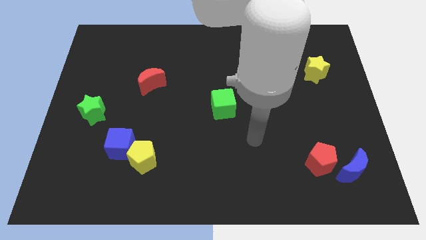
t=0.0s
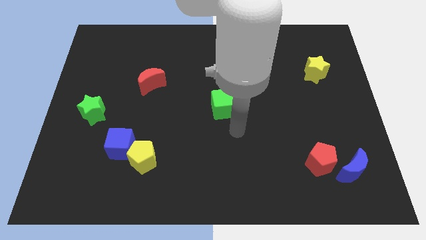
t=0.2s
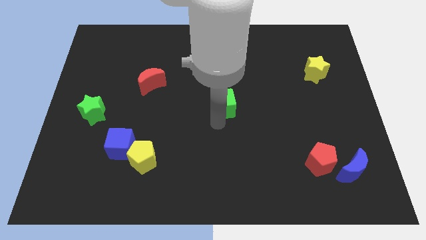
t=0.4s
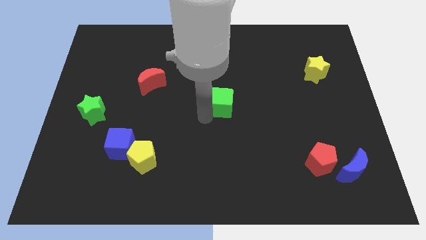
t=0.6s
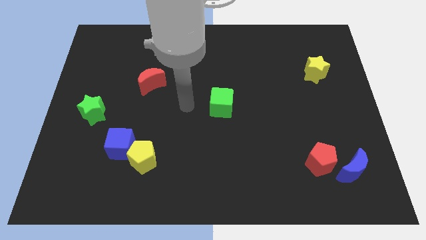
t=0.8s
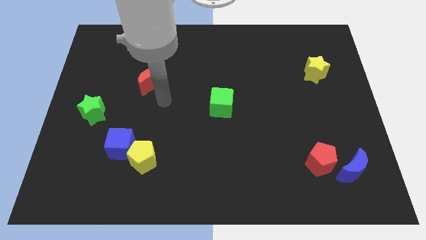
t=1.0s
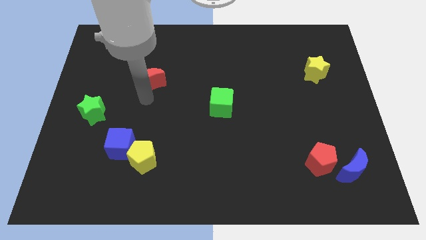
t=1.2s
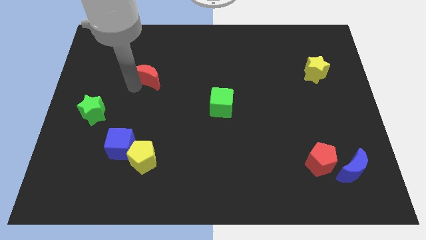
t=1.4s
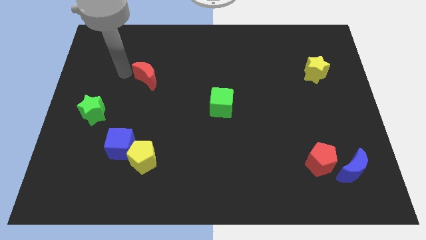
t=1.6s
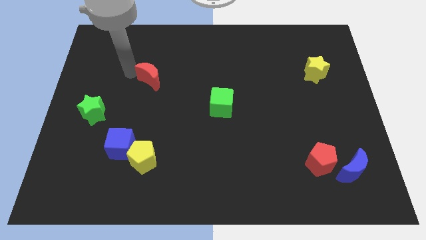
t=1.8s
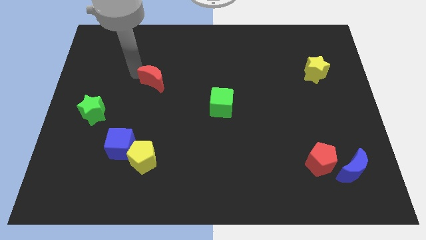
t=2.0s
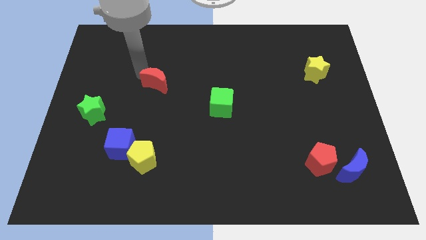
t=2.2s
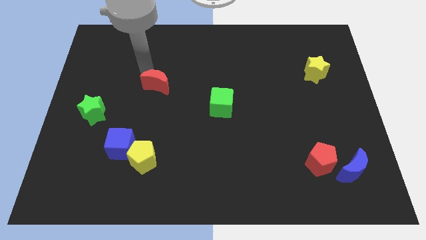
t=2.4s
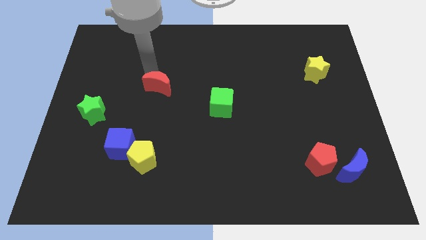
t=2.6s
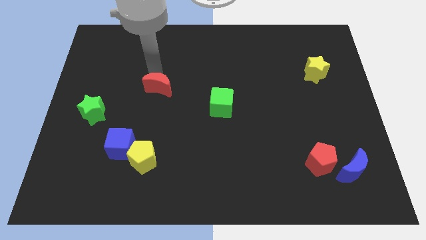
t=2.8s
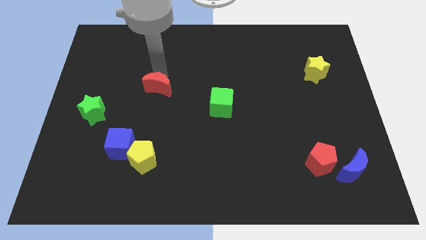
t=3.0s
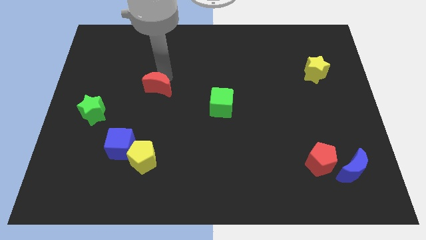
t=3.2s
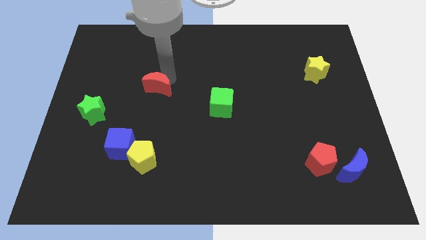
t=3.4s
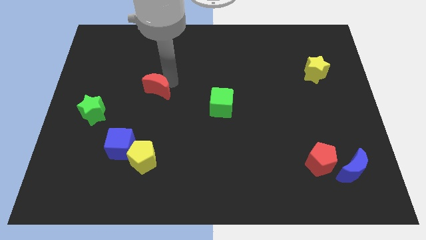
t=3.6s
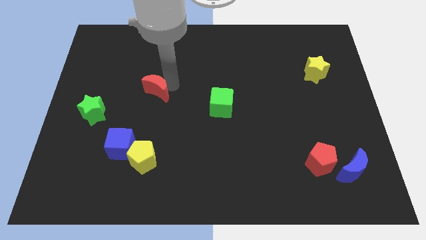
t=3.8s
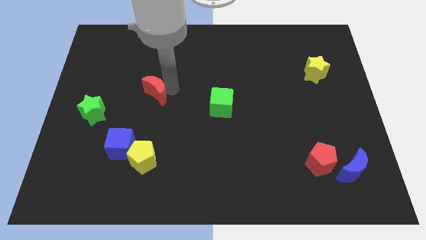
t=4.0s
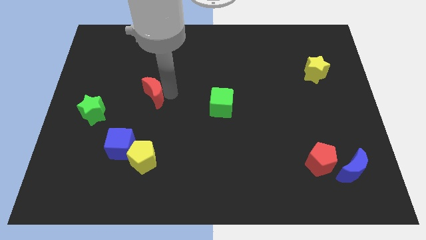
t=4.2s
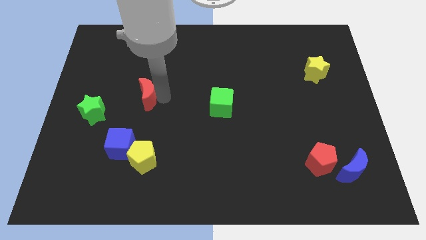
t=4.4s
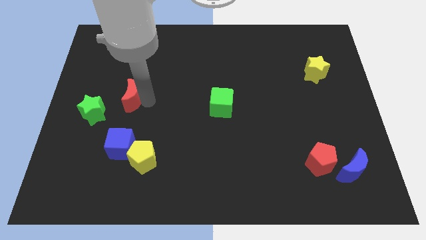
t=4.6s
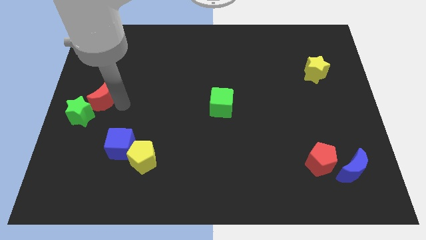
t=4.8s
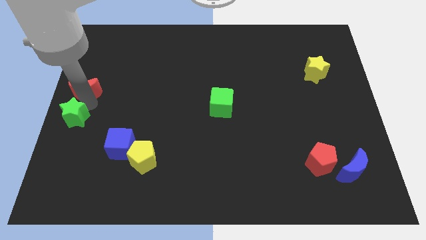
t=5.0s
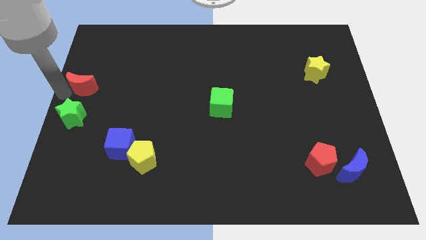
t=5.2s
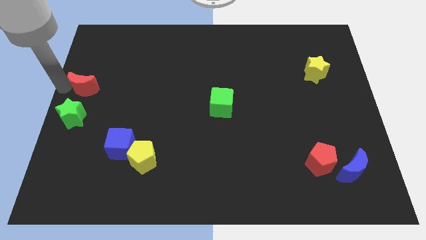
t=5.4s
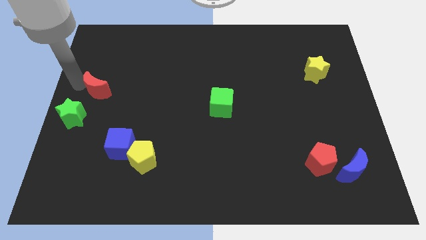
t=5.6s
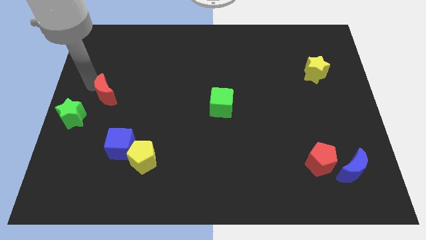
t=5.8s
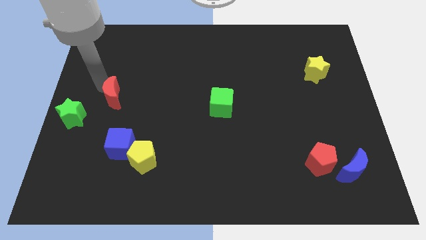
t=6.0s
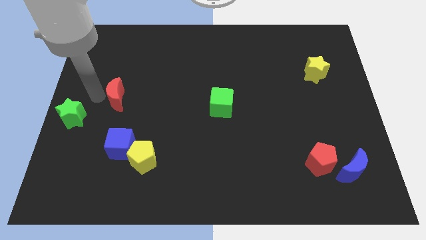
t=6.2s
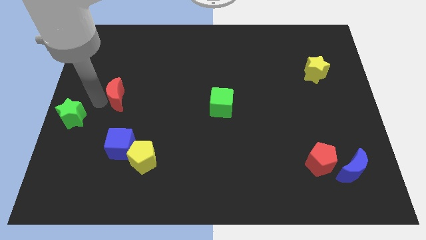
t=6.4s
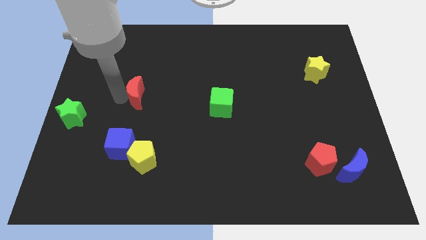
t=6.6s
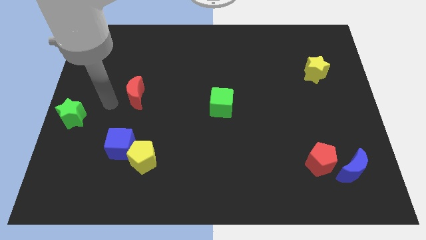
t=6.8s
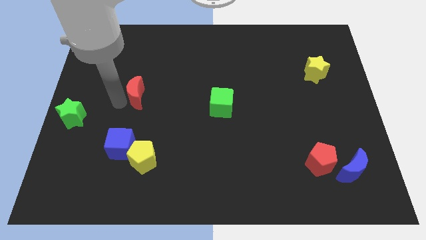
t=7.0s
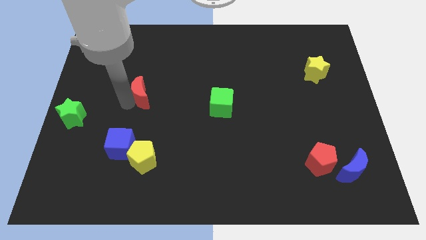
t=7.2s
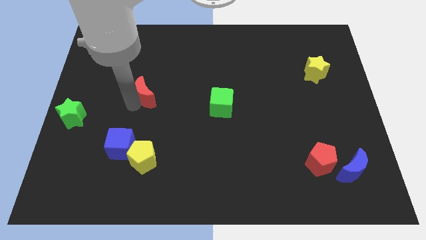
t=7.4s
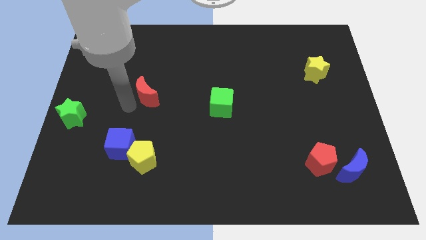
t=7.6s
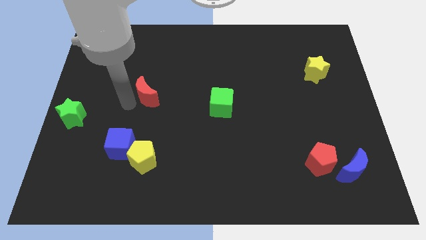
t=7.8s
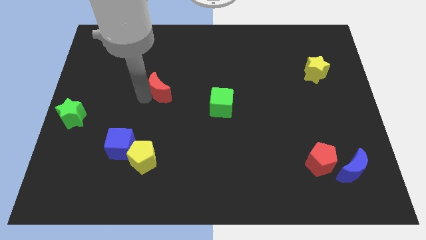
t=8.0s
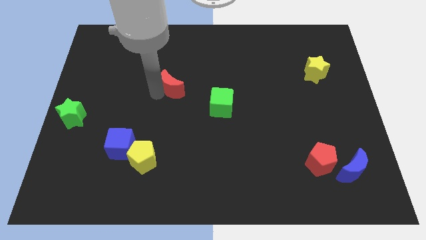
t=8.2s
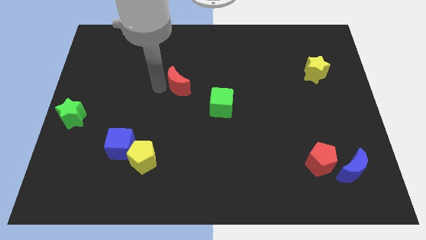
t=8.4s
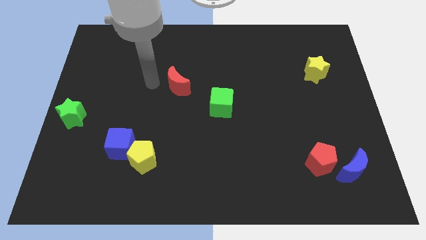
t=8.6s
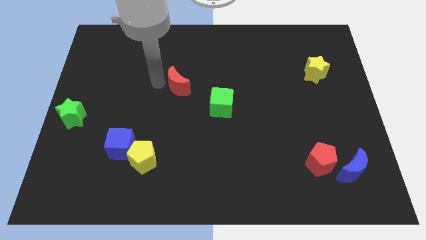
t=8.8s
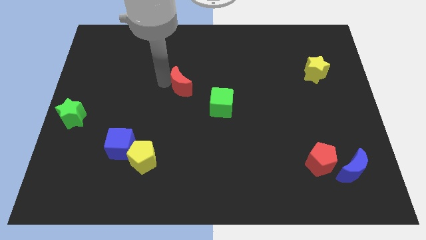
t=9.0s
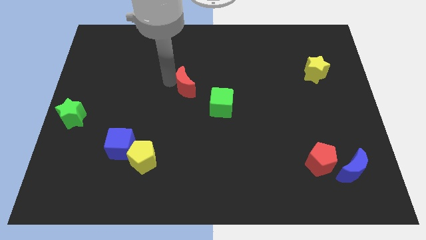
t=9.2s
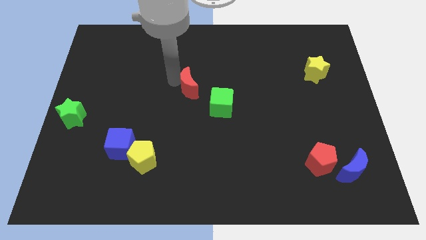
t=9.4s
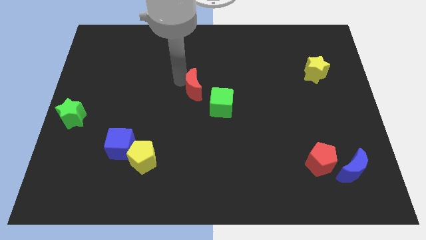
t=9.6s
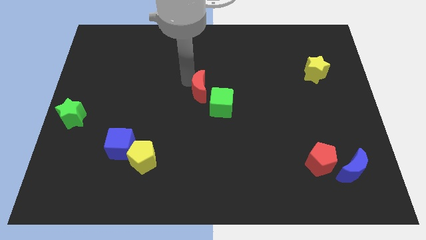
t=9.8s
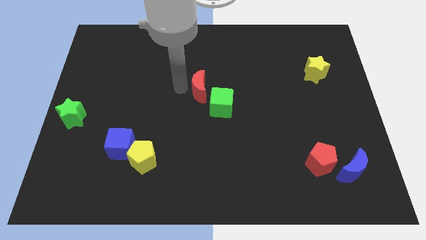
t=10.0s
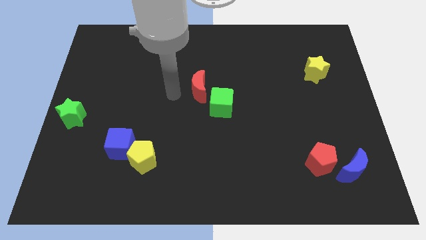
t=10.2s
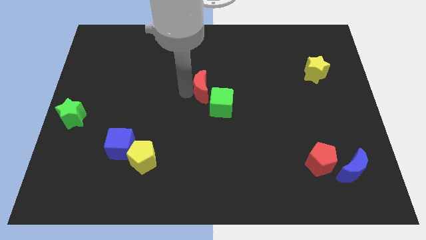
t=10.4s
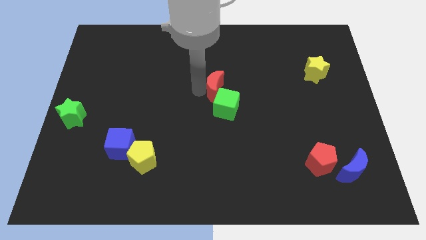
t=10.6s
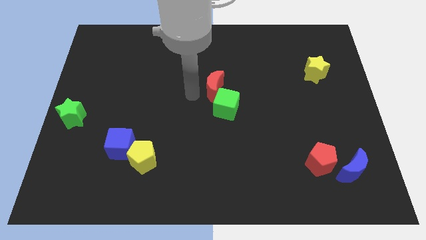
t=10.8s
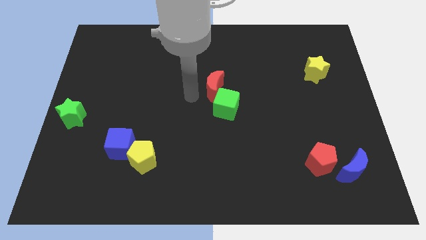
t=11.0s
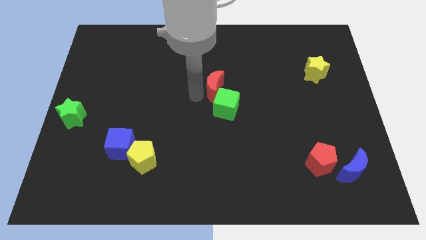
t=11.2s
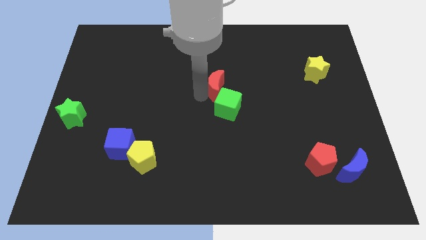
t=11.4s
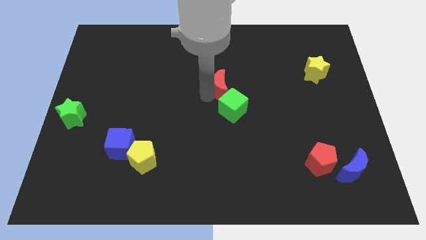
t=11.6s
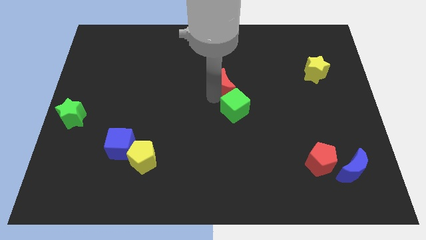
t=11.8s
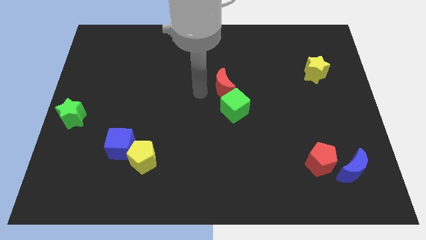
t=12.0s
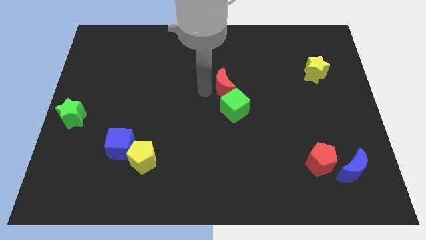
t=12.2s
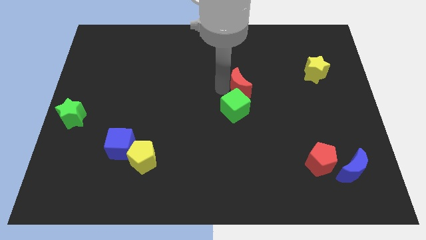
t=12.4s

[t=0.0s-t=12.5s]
move the red moon right

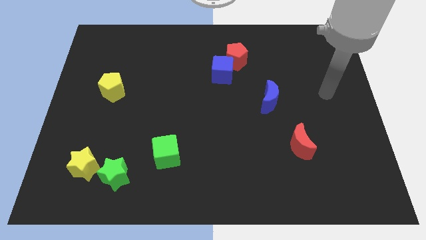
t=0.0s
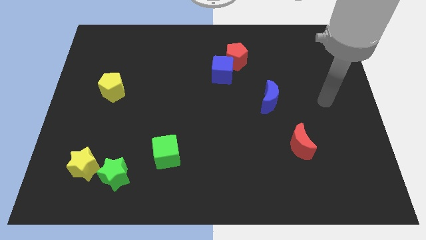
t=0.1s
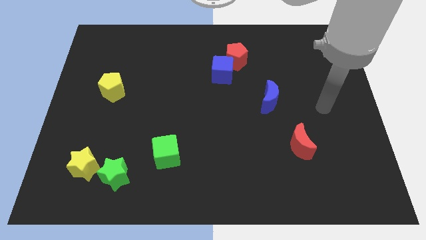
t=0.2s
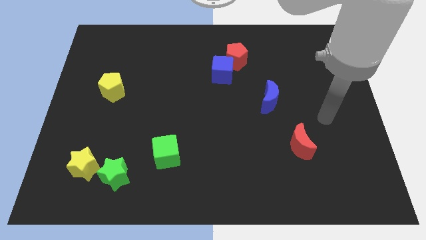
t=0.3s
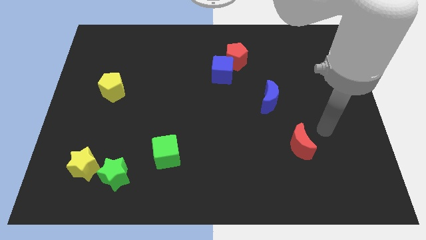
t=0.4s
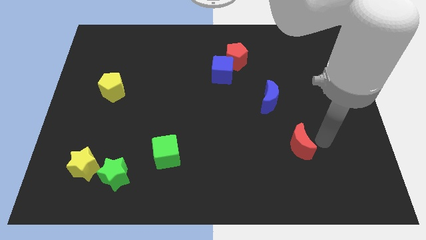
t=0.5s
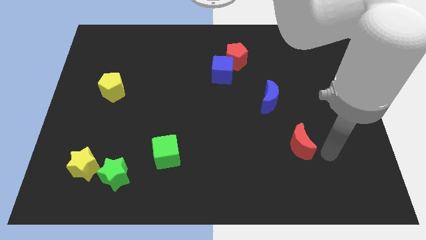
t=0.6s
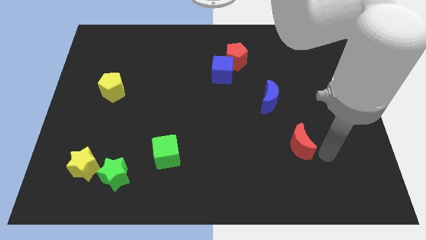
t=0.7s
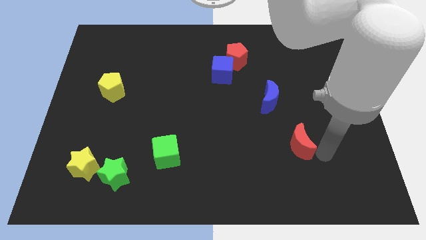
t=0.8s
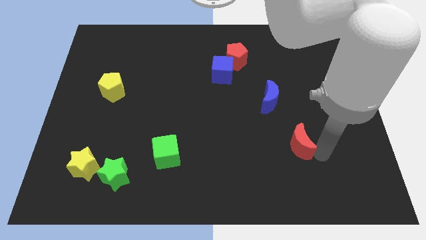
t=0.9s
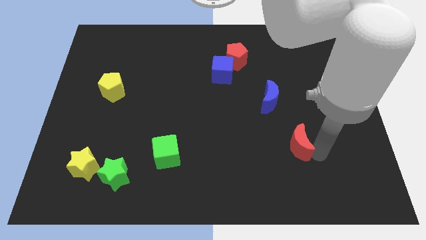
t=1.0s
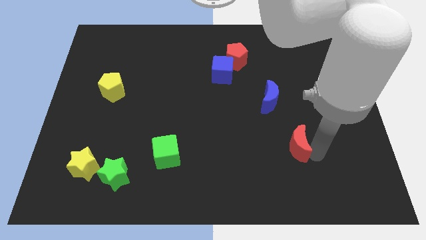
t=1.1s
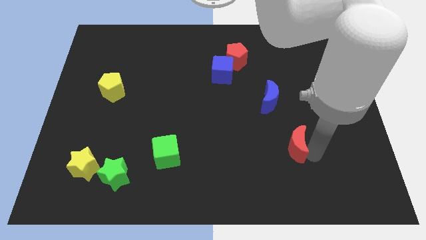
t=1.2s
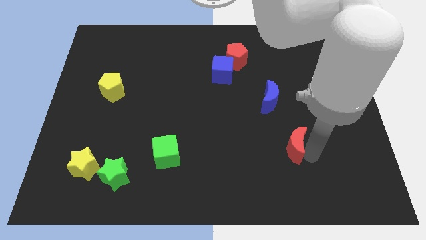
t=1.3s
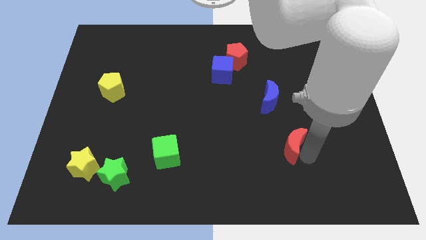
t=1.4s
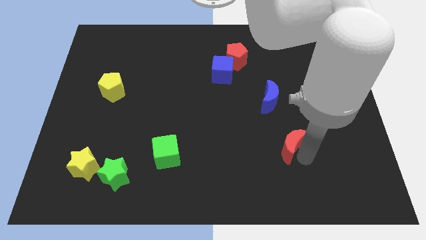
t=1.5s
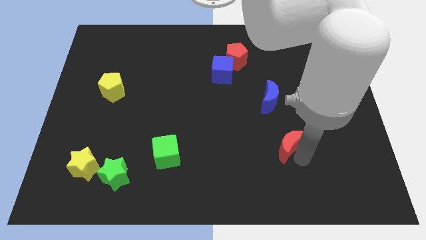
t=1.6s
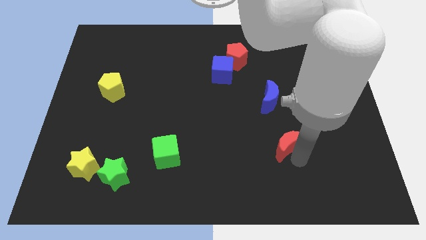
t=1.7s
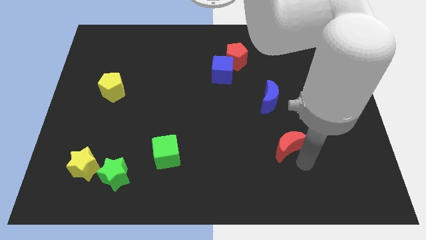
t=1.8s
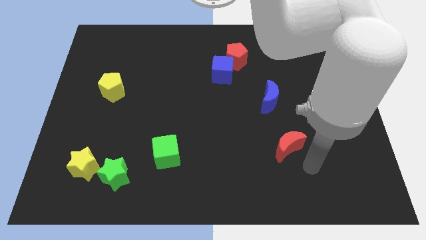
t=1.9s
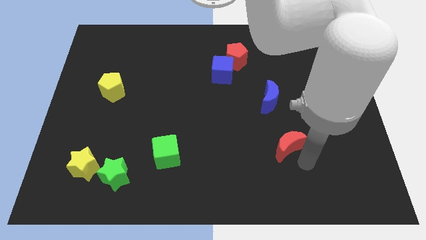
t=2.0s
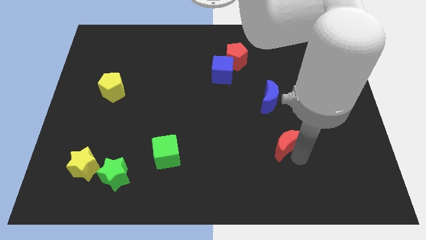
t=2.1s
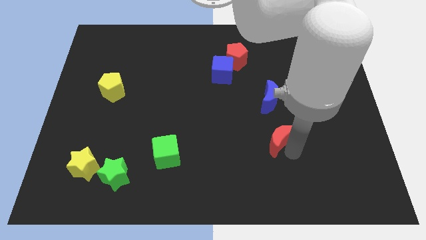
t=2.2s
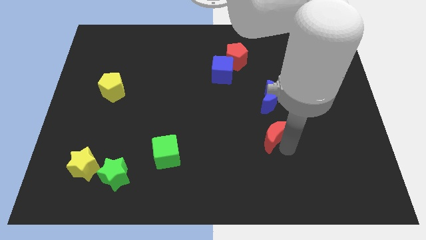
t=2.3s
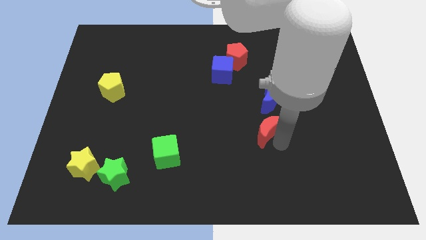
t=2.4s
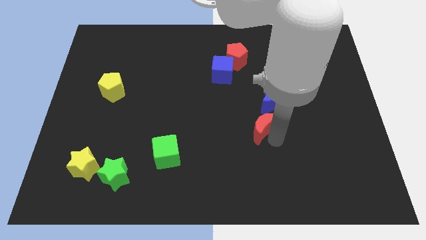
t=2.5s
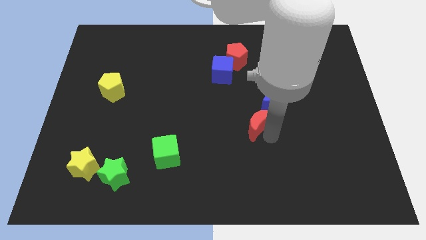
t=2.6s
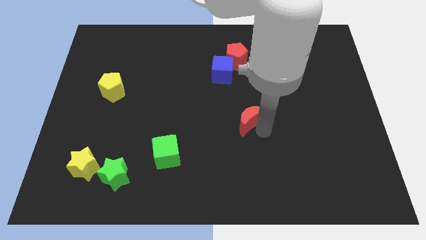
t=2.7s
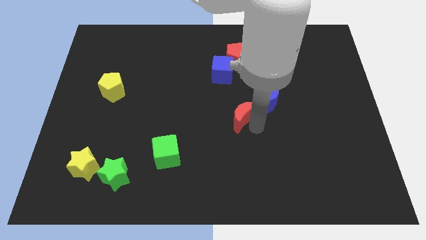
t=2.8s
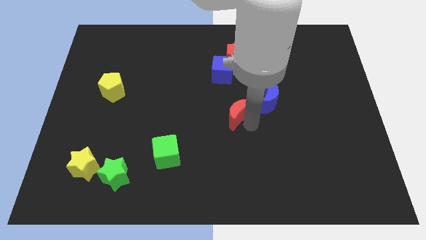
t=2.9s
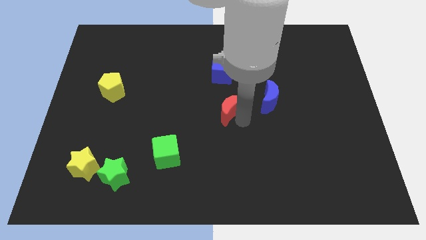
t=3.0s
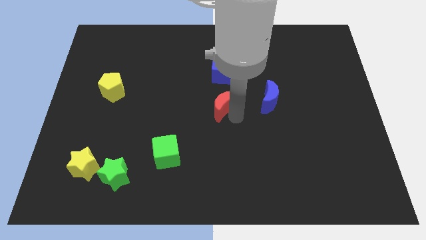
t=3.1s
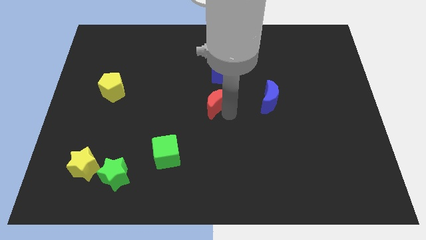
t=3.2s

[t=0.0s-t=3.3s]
push the red moon upwards and to the left
